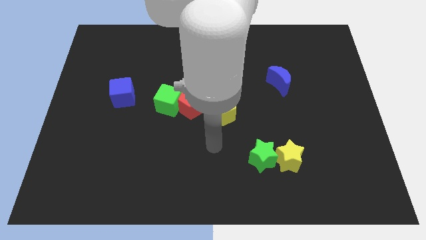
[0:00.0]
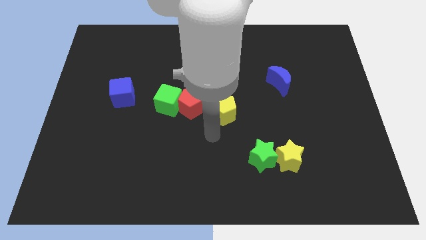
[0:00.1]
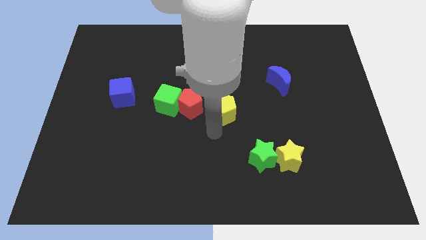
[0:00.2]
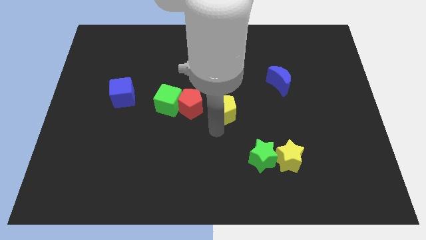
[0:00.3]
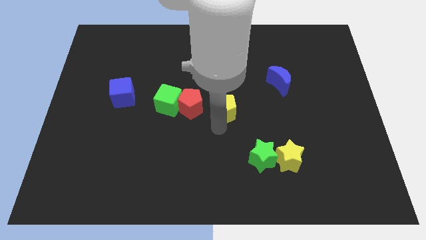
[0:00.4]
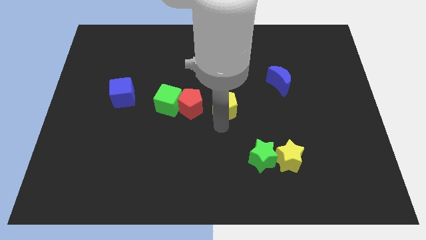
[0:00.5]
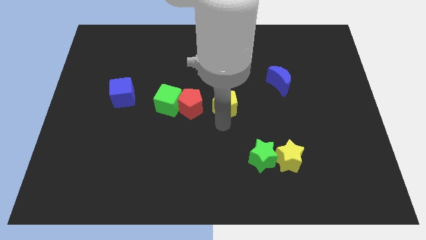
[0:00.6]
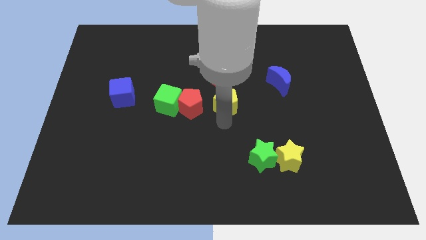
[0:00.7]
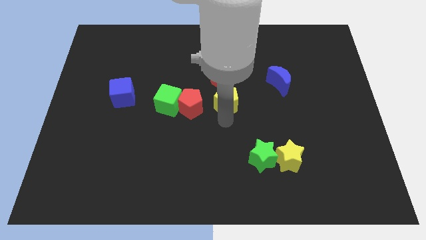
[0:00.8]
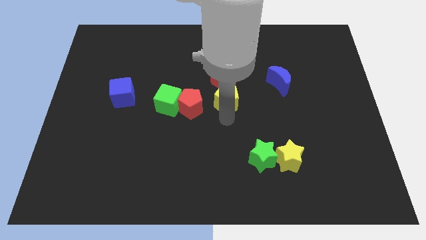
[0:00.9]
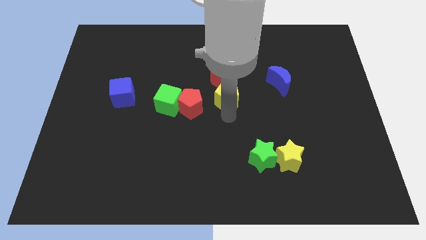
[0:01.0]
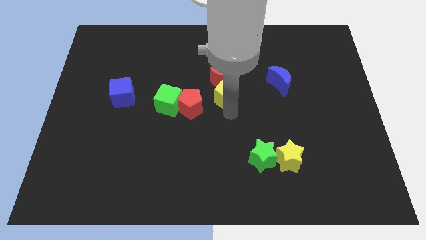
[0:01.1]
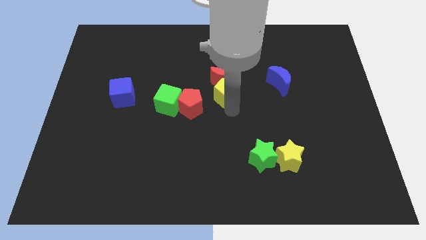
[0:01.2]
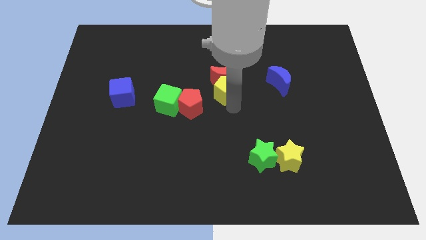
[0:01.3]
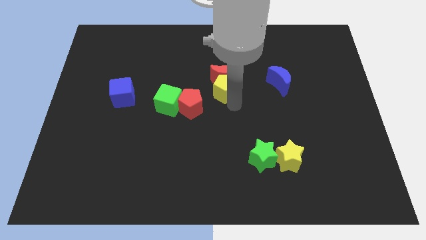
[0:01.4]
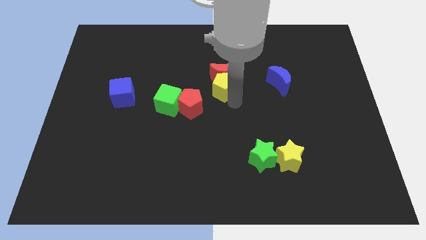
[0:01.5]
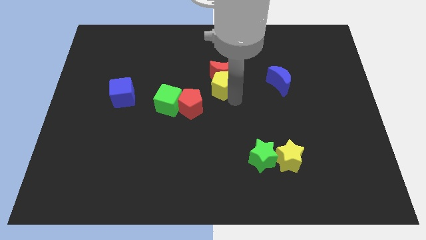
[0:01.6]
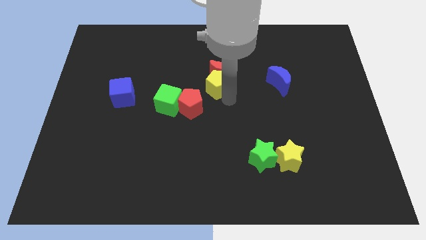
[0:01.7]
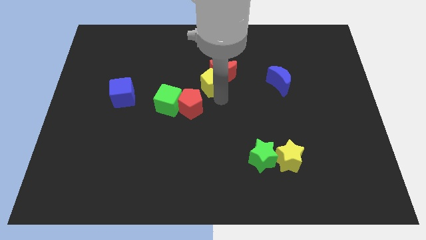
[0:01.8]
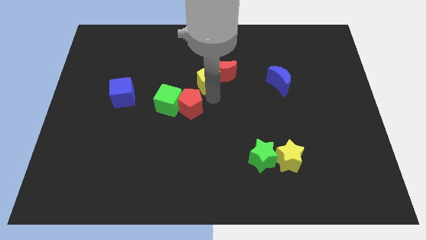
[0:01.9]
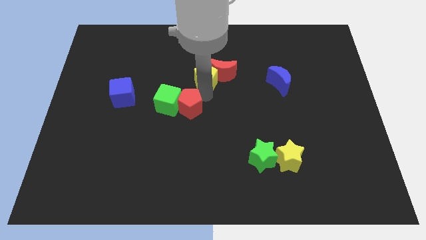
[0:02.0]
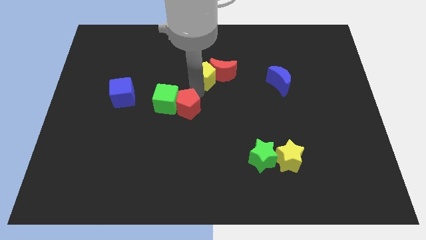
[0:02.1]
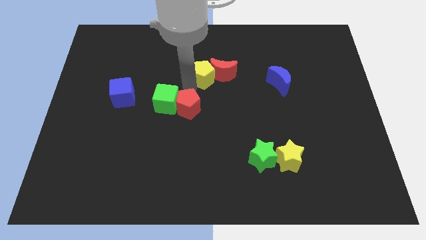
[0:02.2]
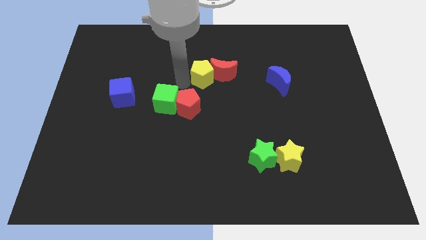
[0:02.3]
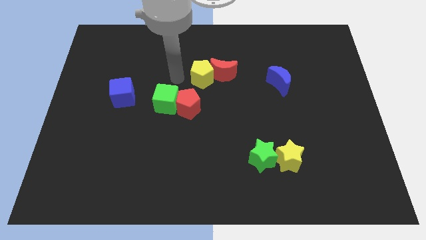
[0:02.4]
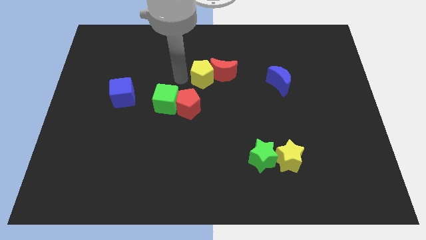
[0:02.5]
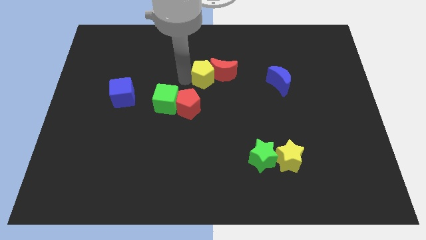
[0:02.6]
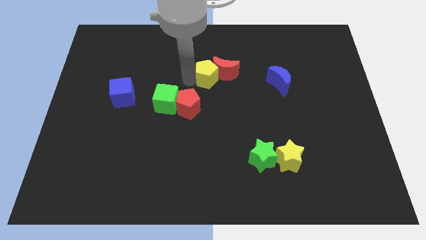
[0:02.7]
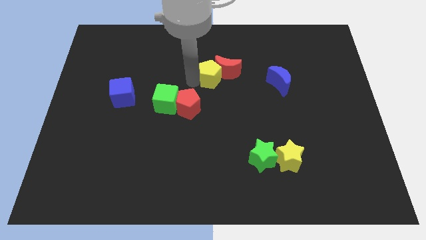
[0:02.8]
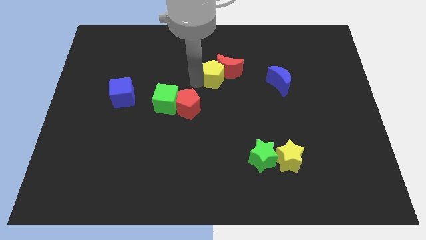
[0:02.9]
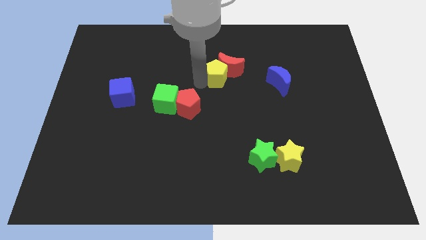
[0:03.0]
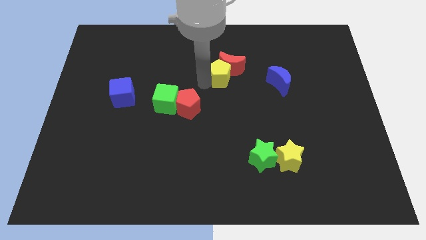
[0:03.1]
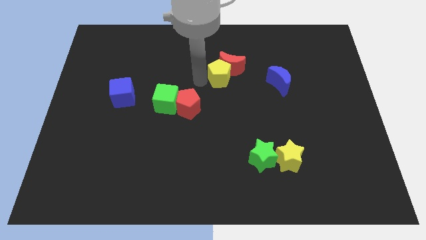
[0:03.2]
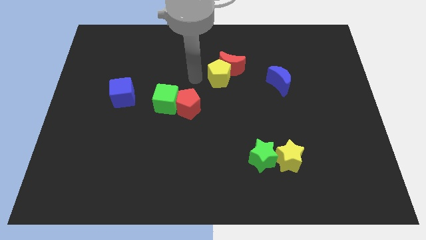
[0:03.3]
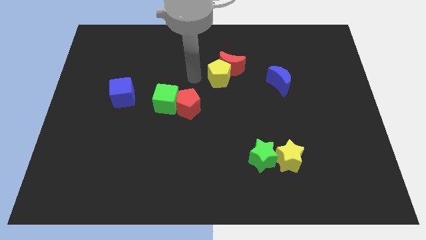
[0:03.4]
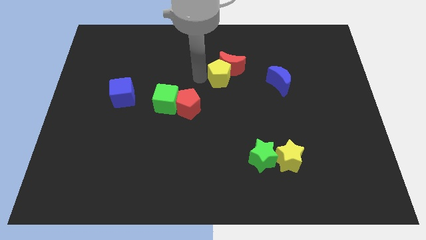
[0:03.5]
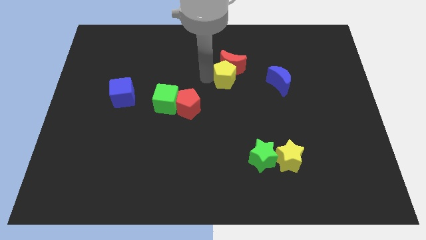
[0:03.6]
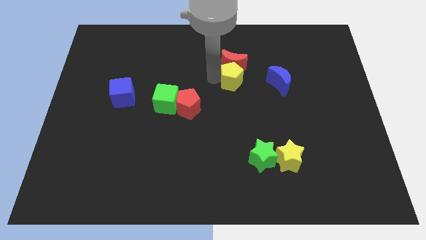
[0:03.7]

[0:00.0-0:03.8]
slide the yellow pentagon slightly upwards and then to the right

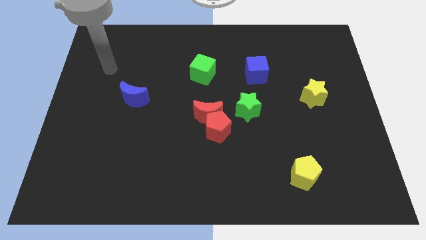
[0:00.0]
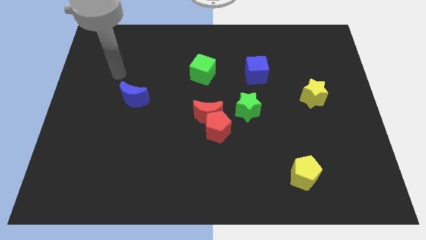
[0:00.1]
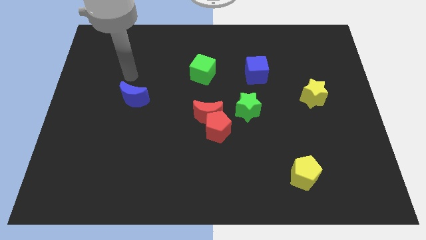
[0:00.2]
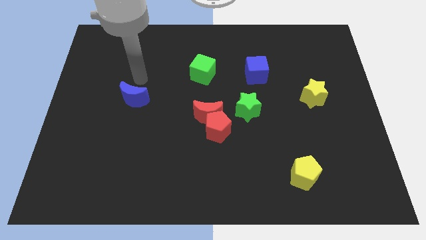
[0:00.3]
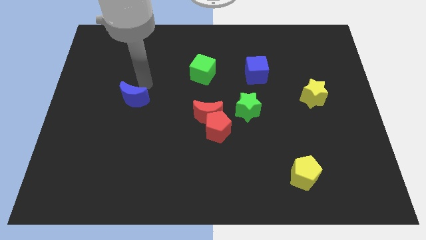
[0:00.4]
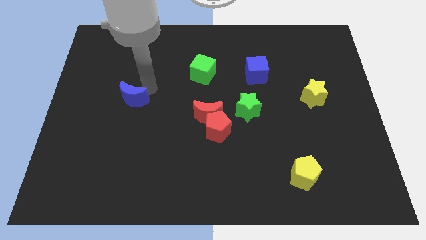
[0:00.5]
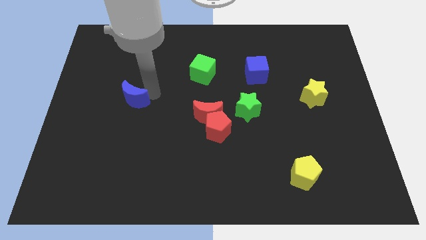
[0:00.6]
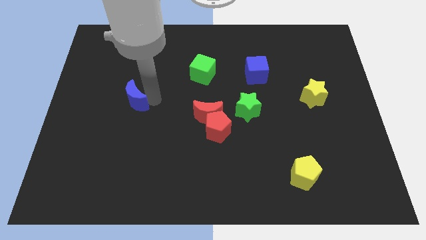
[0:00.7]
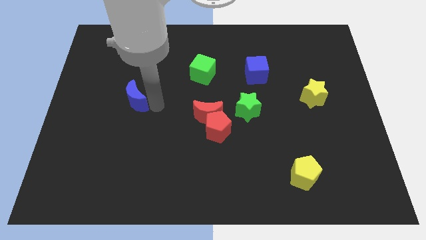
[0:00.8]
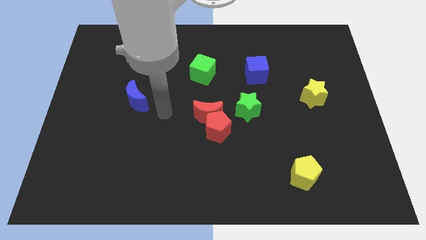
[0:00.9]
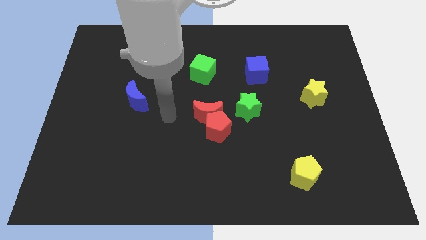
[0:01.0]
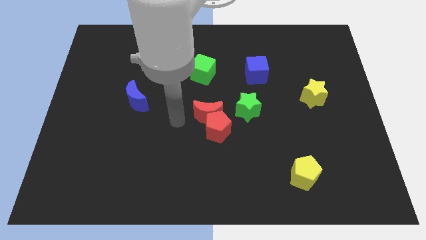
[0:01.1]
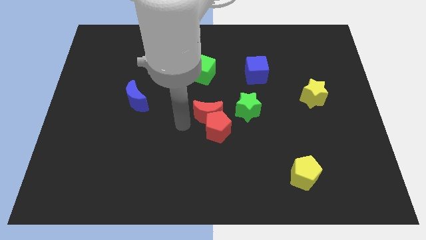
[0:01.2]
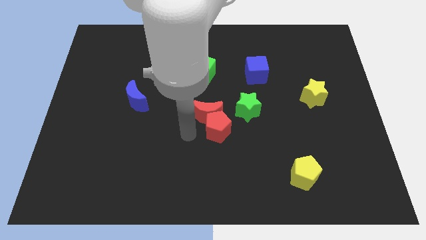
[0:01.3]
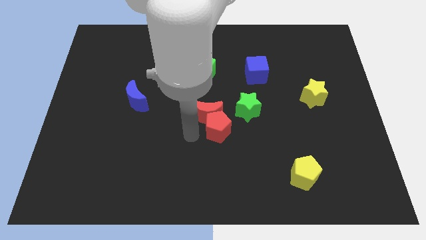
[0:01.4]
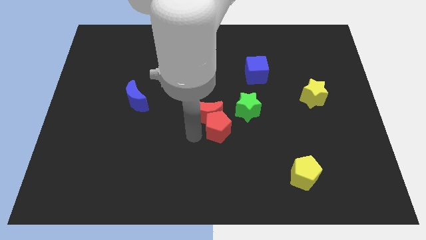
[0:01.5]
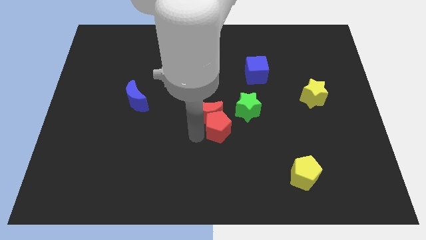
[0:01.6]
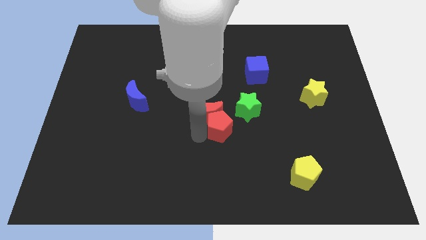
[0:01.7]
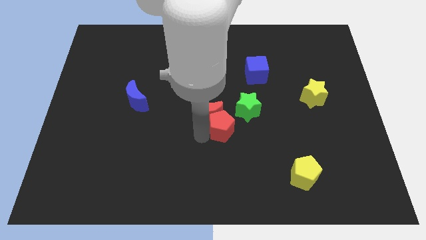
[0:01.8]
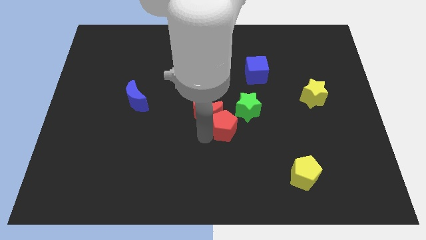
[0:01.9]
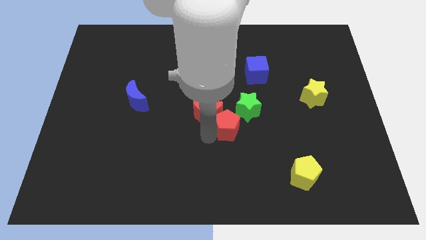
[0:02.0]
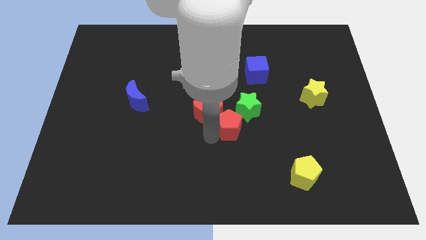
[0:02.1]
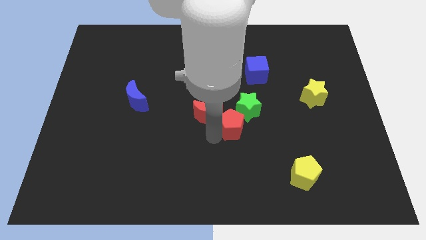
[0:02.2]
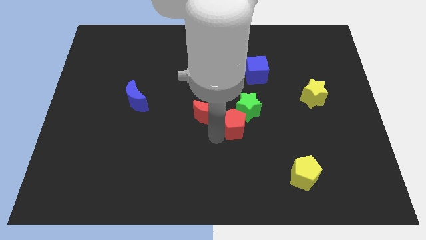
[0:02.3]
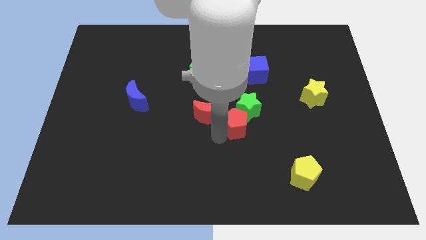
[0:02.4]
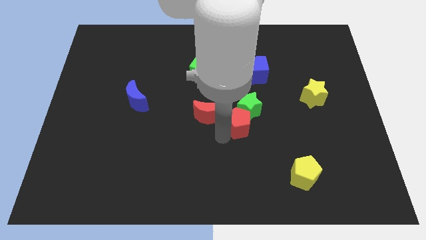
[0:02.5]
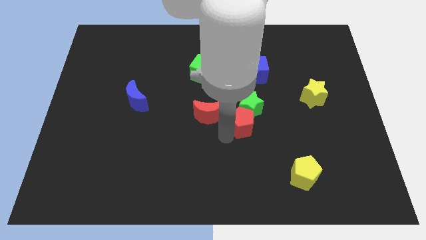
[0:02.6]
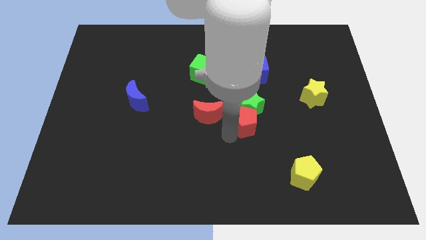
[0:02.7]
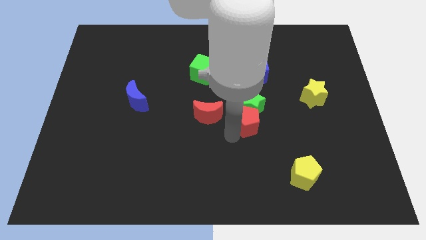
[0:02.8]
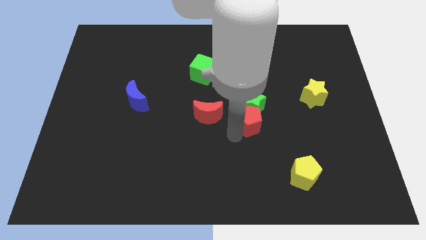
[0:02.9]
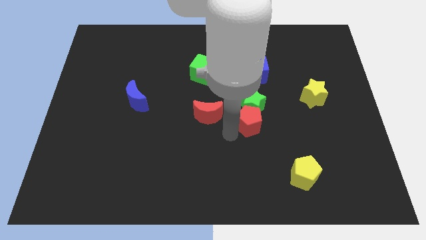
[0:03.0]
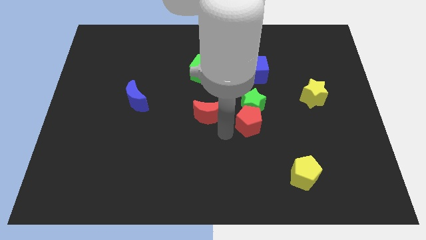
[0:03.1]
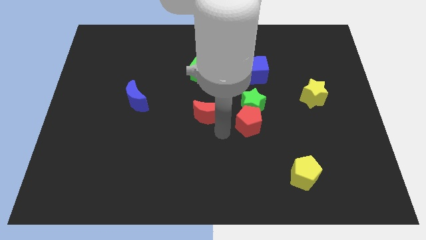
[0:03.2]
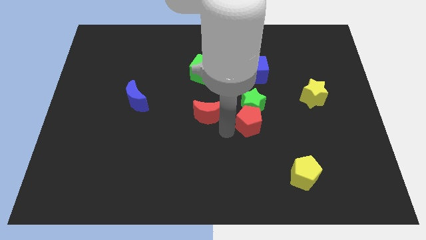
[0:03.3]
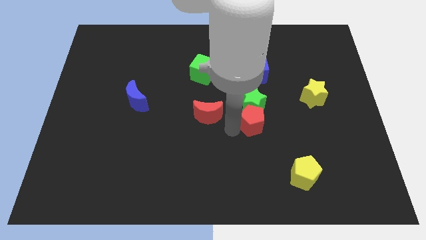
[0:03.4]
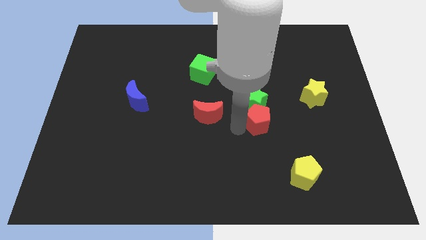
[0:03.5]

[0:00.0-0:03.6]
slide the red pentagon upwards and to the right diagonally slightly

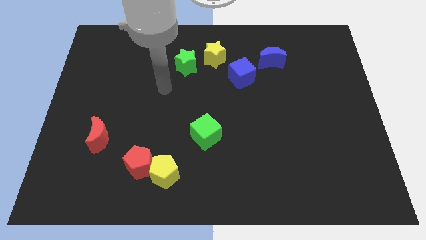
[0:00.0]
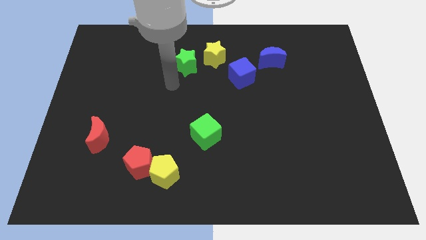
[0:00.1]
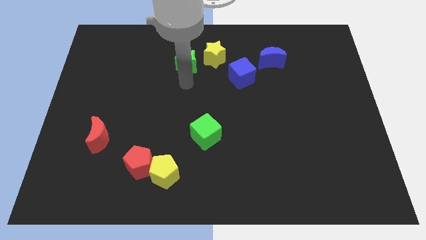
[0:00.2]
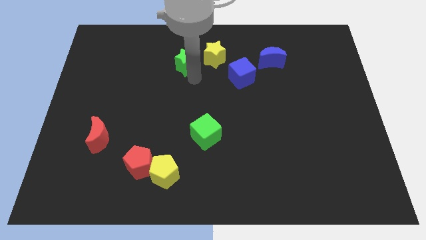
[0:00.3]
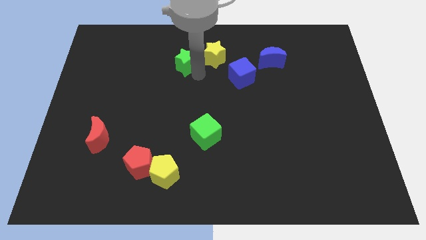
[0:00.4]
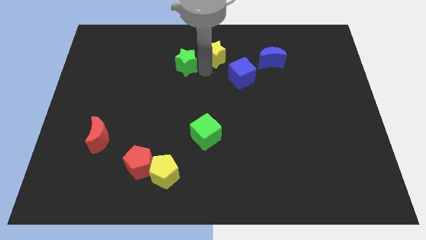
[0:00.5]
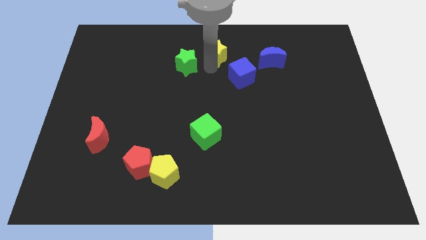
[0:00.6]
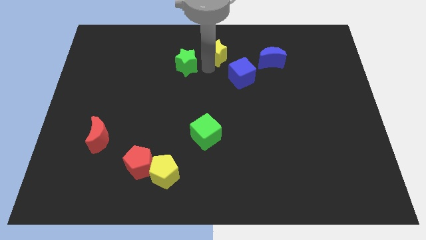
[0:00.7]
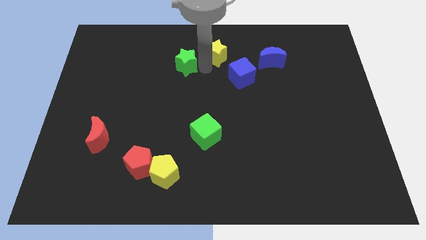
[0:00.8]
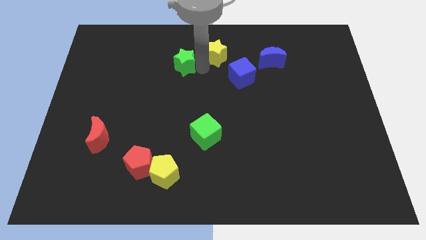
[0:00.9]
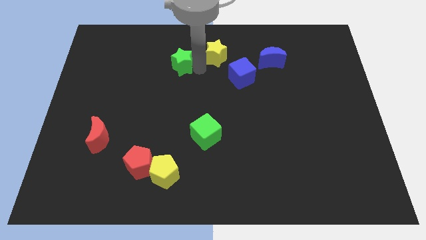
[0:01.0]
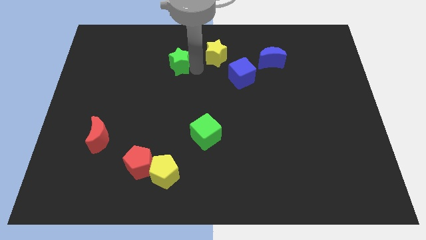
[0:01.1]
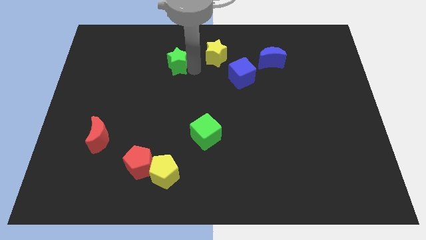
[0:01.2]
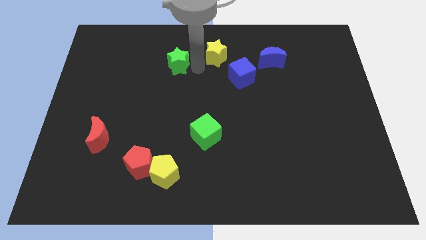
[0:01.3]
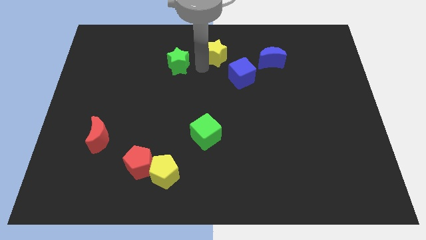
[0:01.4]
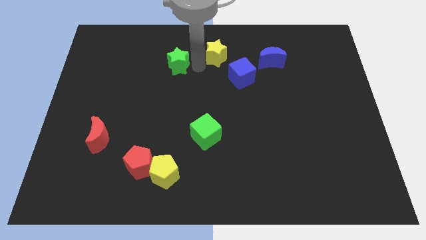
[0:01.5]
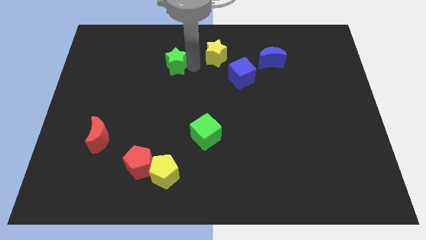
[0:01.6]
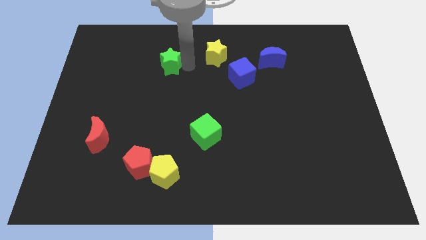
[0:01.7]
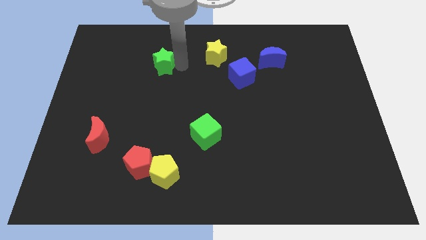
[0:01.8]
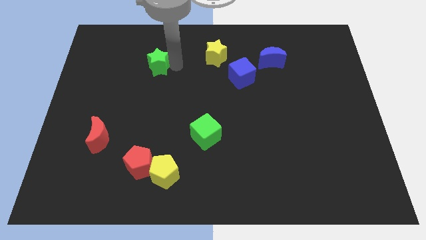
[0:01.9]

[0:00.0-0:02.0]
slightly move the green star to the left
